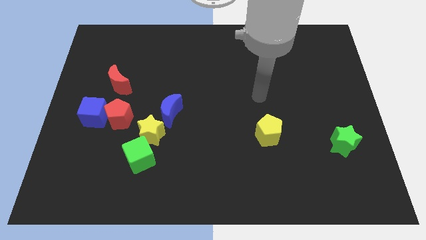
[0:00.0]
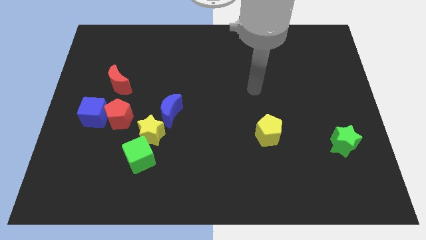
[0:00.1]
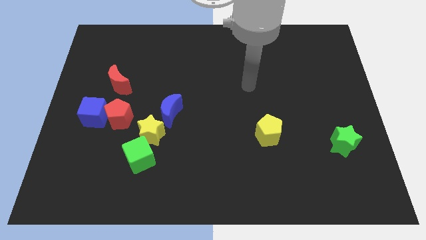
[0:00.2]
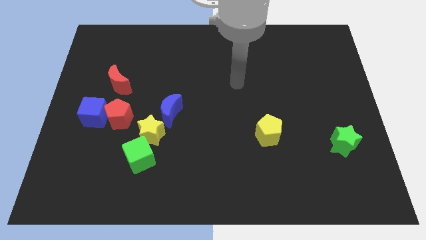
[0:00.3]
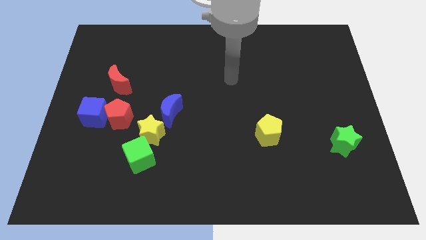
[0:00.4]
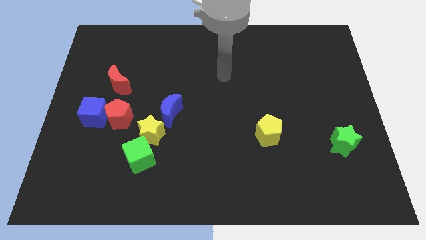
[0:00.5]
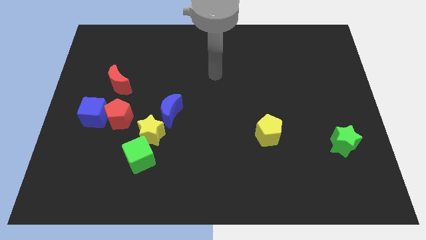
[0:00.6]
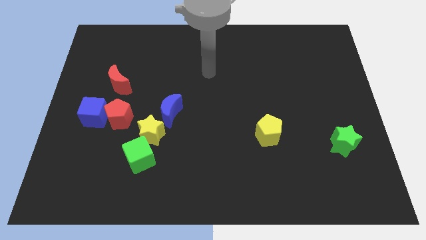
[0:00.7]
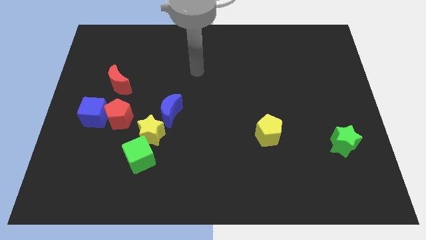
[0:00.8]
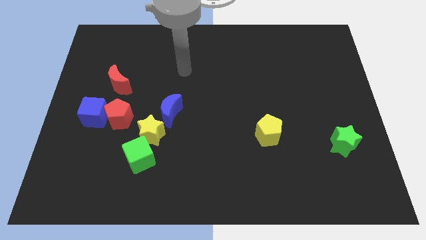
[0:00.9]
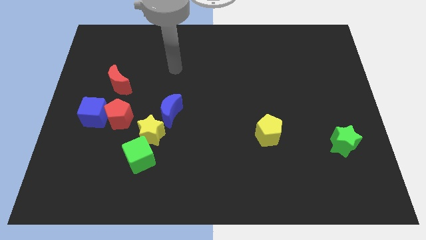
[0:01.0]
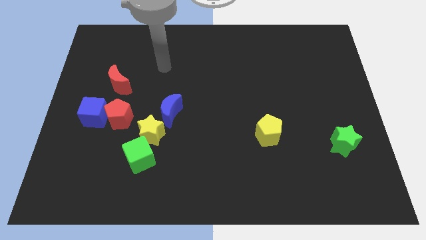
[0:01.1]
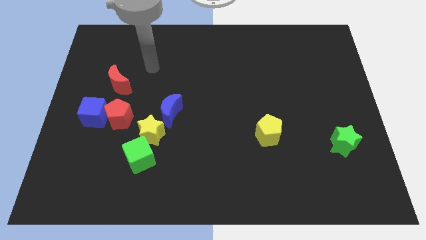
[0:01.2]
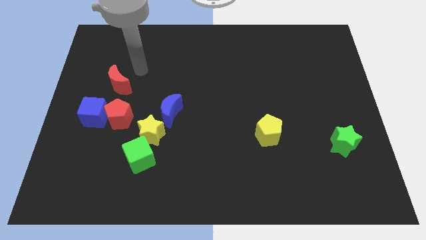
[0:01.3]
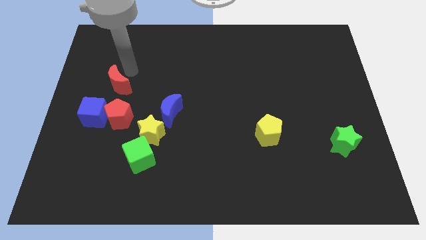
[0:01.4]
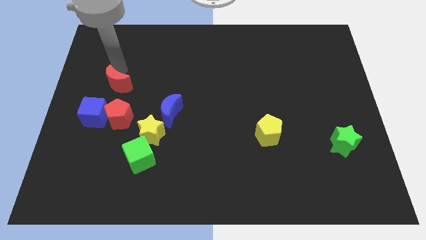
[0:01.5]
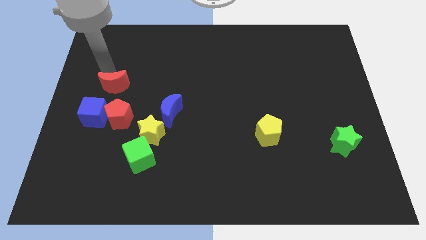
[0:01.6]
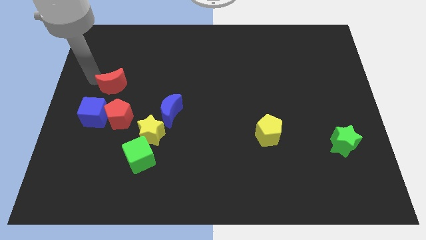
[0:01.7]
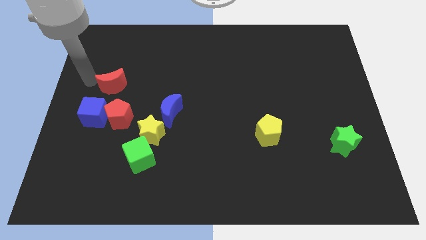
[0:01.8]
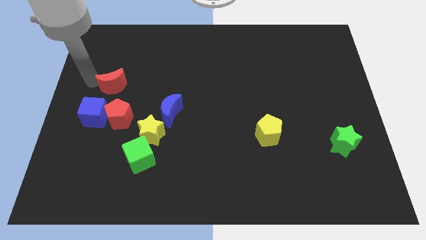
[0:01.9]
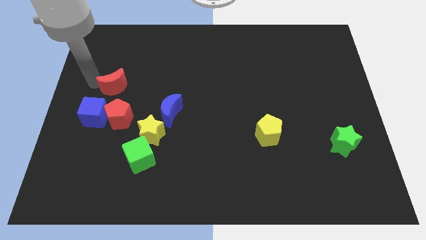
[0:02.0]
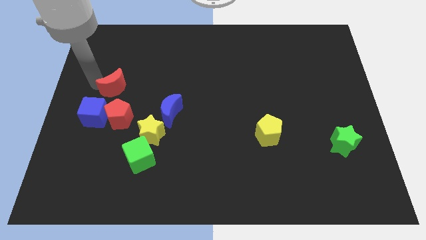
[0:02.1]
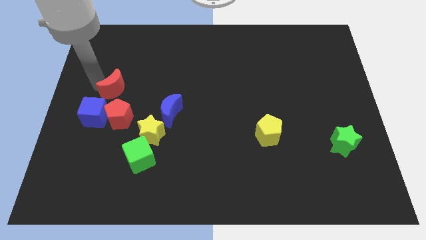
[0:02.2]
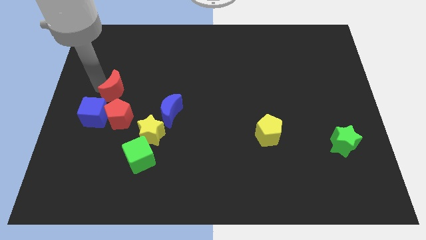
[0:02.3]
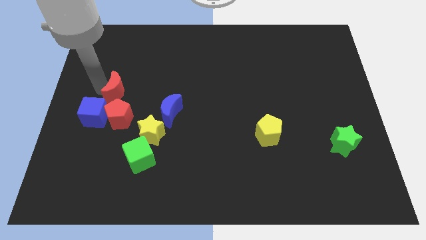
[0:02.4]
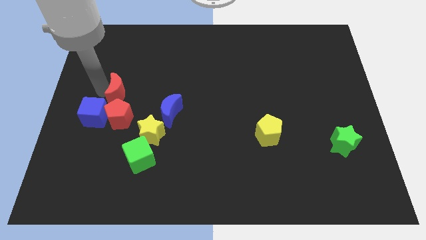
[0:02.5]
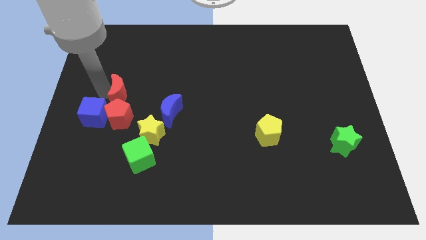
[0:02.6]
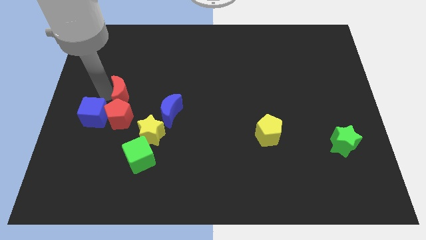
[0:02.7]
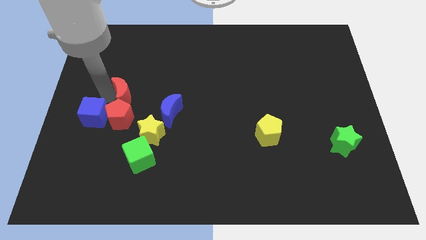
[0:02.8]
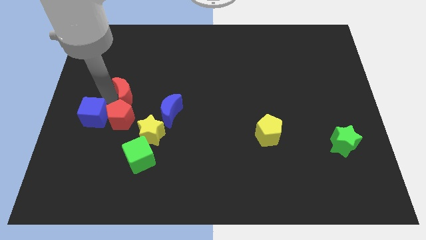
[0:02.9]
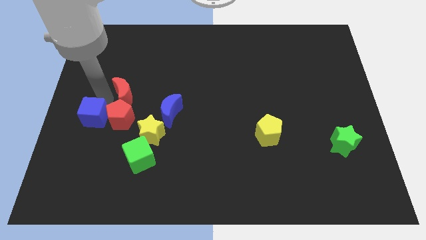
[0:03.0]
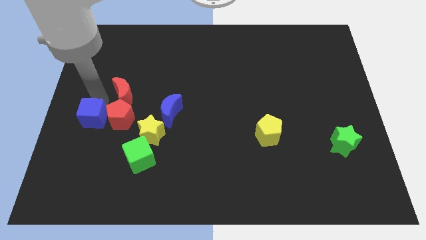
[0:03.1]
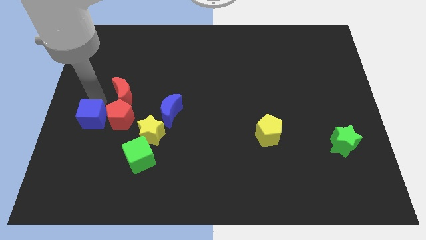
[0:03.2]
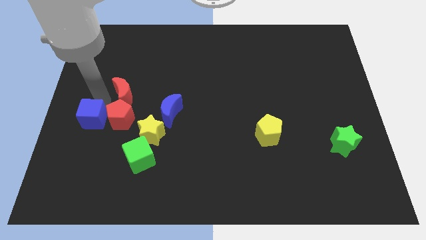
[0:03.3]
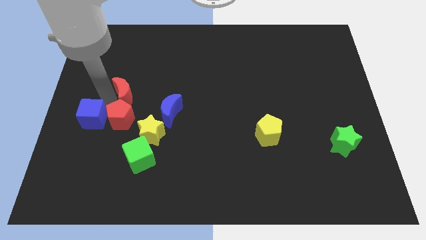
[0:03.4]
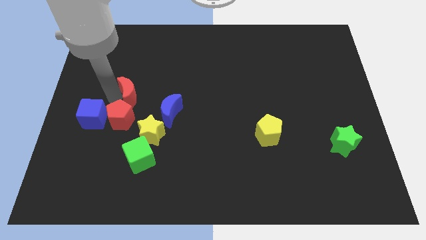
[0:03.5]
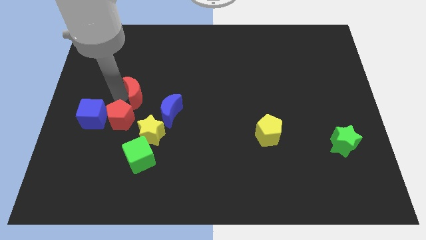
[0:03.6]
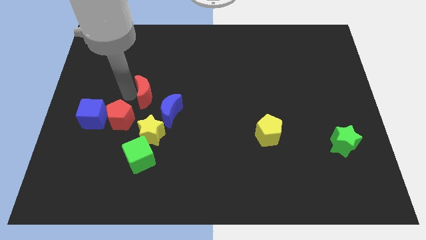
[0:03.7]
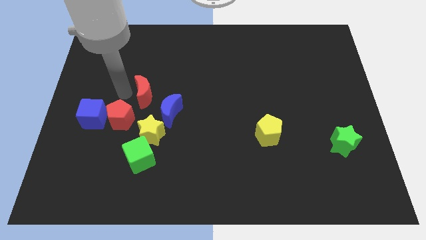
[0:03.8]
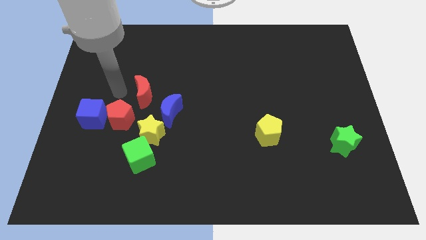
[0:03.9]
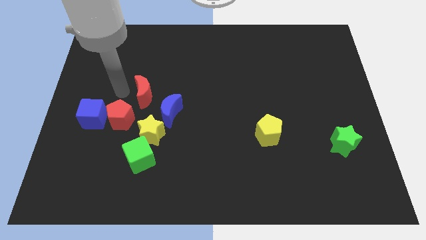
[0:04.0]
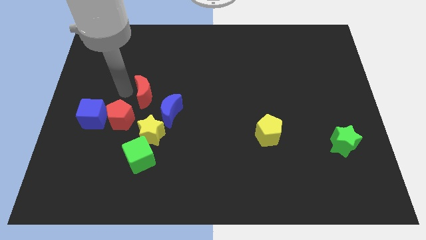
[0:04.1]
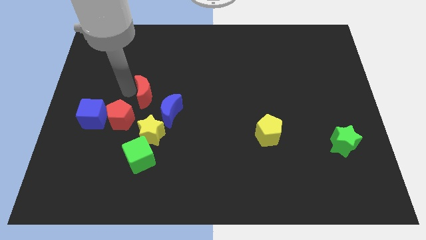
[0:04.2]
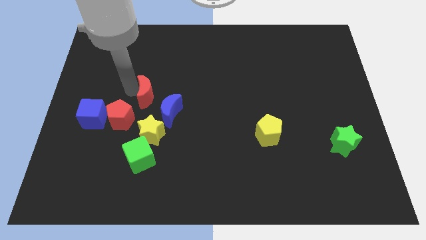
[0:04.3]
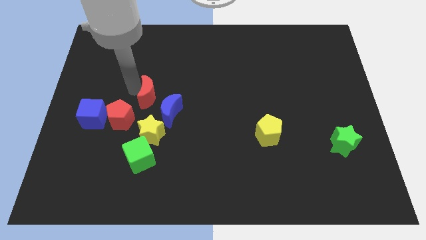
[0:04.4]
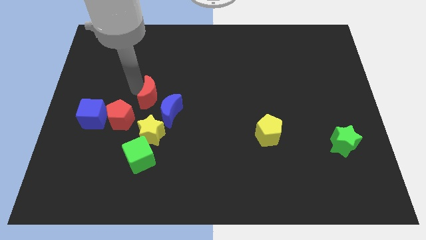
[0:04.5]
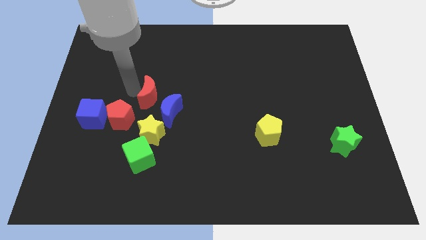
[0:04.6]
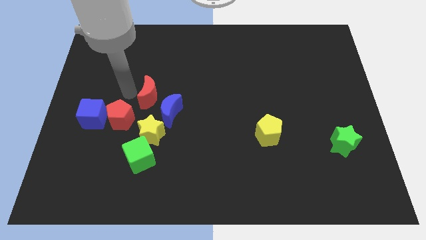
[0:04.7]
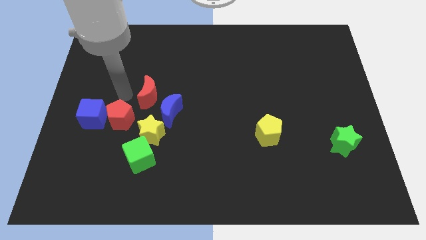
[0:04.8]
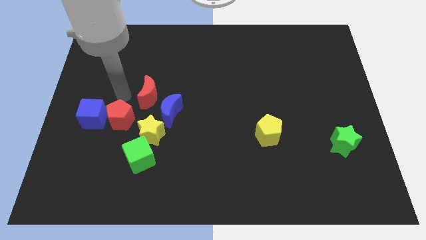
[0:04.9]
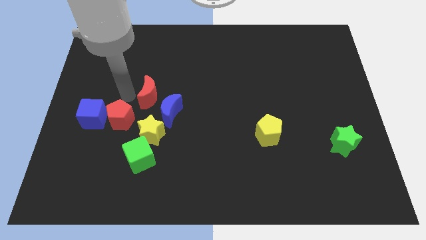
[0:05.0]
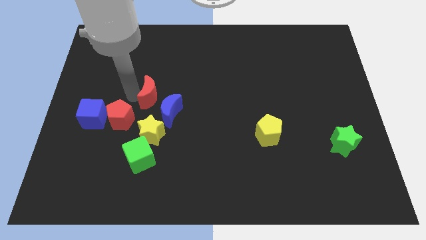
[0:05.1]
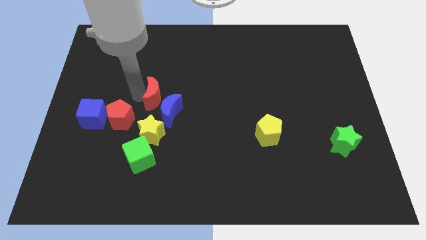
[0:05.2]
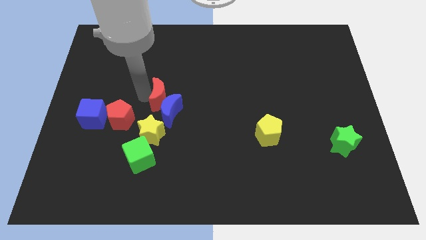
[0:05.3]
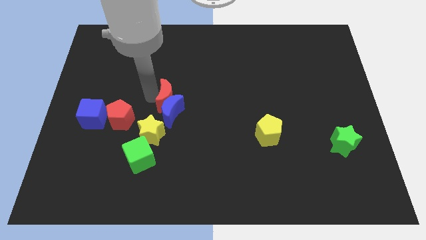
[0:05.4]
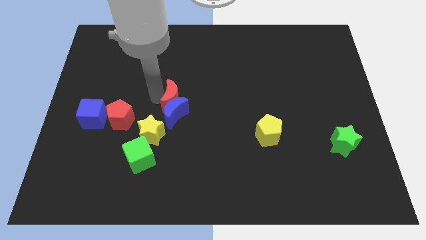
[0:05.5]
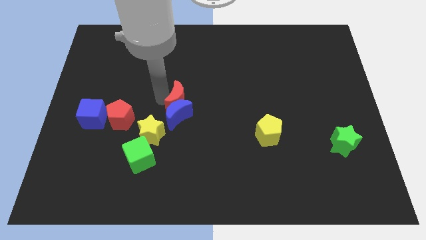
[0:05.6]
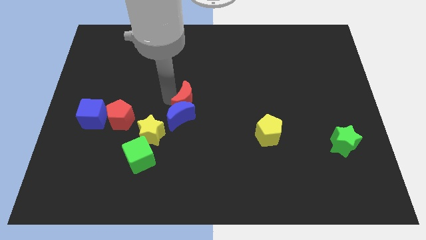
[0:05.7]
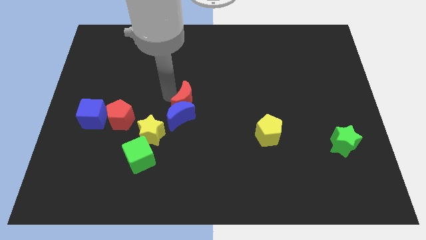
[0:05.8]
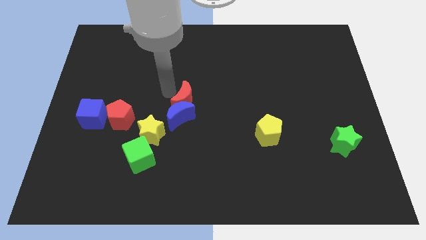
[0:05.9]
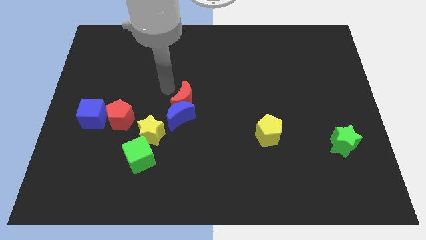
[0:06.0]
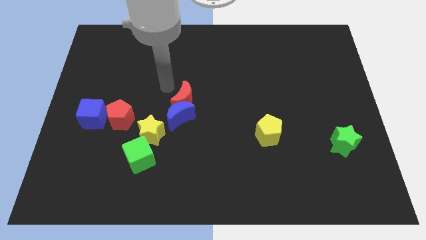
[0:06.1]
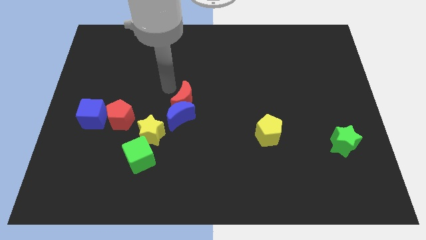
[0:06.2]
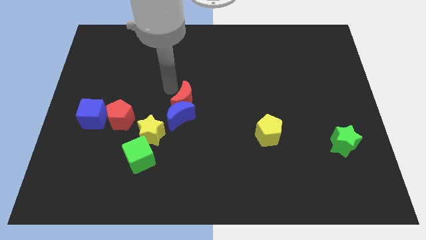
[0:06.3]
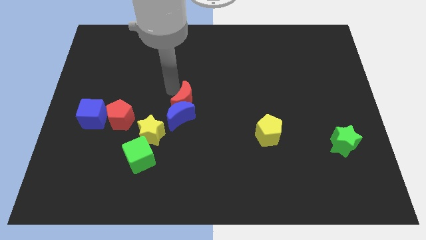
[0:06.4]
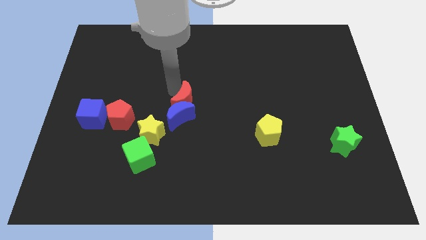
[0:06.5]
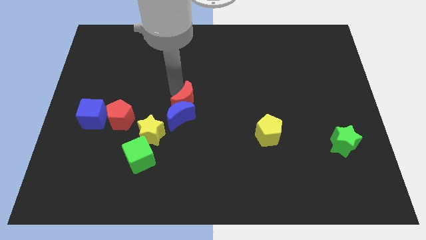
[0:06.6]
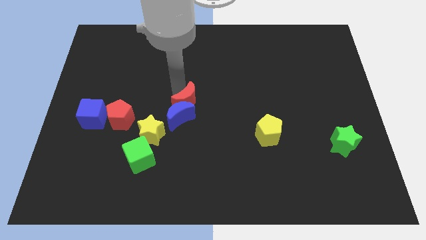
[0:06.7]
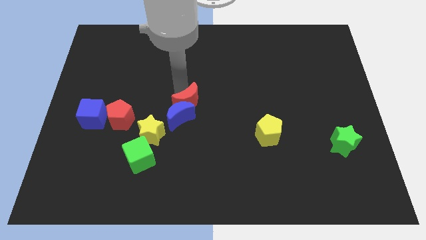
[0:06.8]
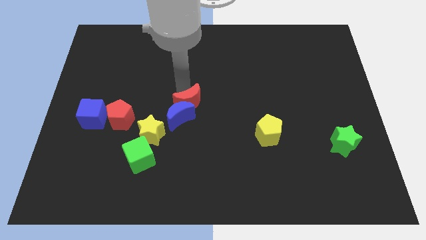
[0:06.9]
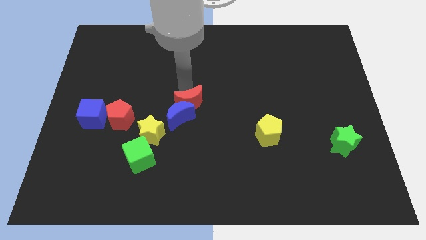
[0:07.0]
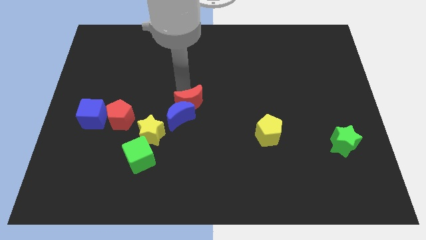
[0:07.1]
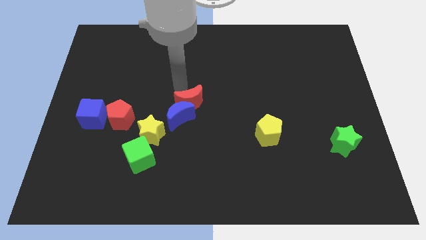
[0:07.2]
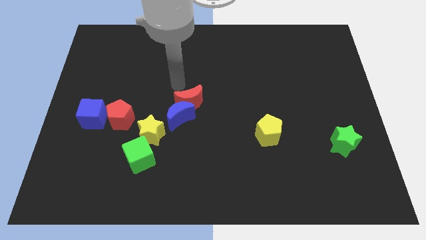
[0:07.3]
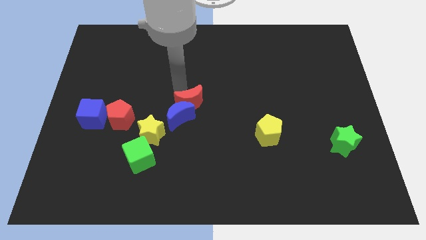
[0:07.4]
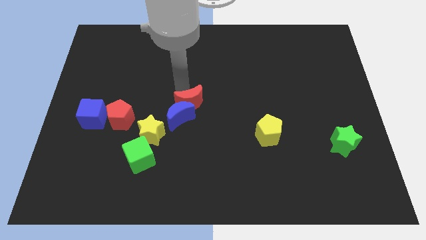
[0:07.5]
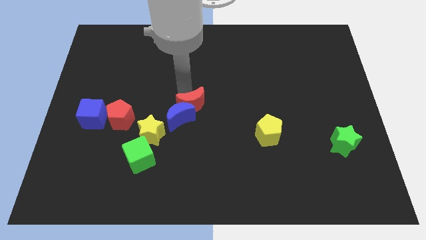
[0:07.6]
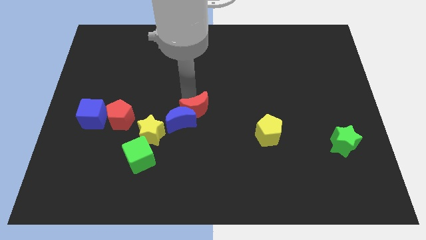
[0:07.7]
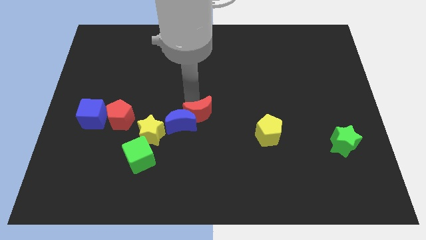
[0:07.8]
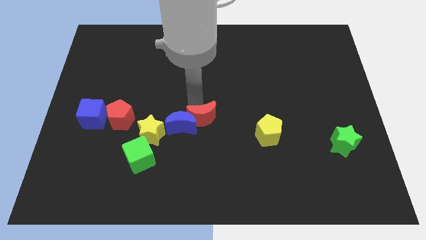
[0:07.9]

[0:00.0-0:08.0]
slide the red moon downwards and then to the right
